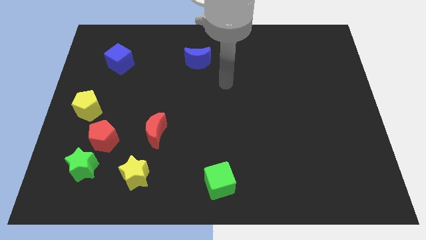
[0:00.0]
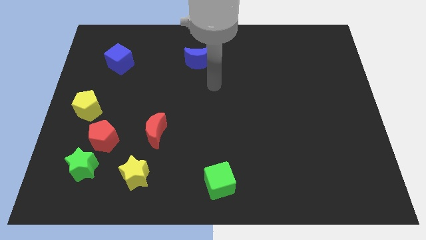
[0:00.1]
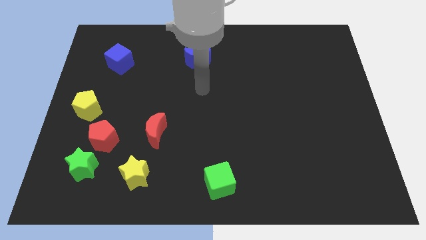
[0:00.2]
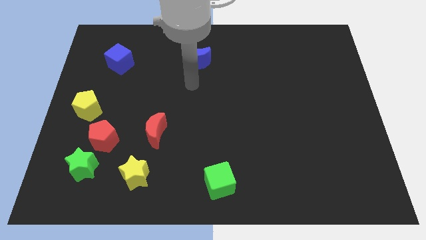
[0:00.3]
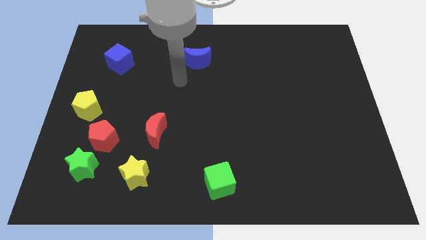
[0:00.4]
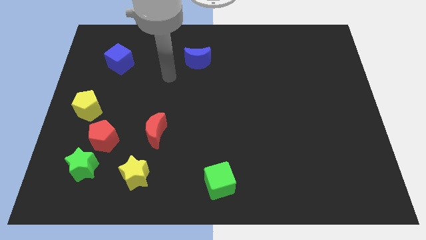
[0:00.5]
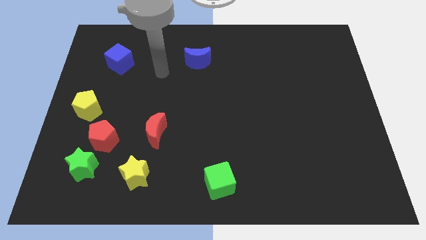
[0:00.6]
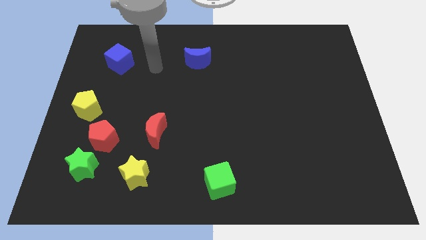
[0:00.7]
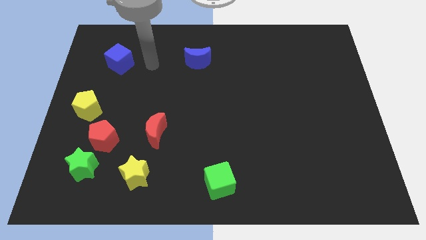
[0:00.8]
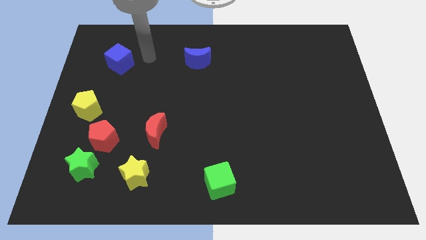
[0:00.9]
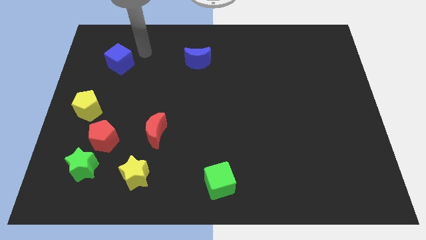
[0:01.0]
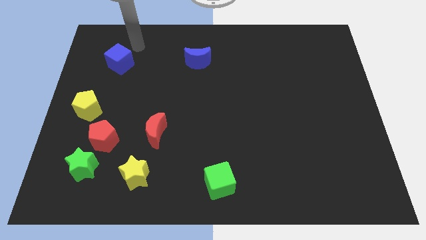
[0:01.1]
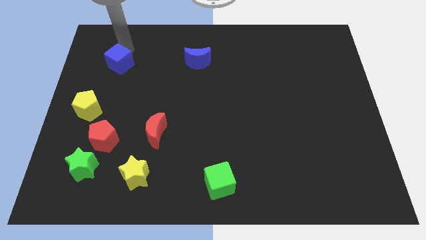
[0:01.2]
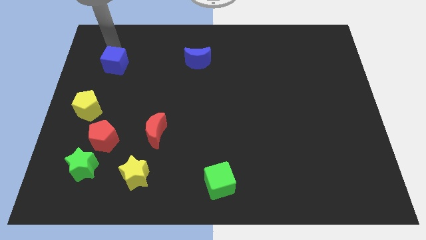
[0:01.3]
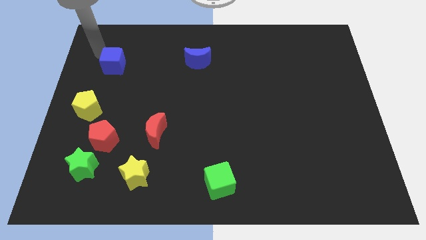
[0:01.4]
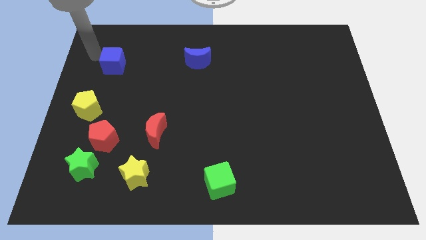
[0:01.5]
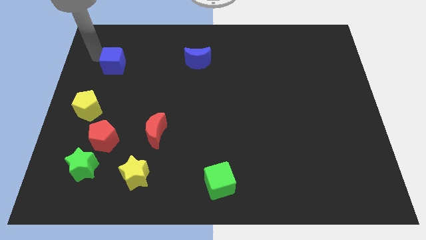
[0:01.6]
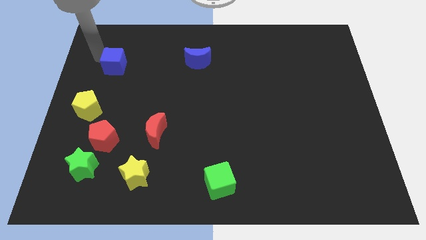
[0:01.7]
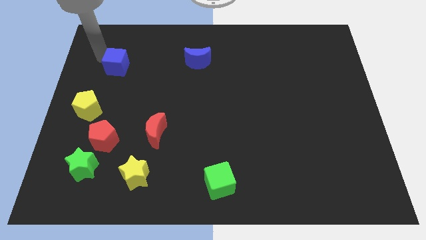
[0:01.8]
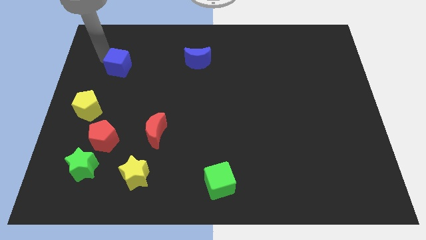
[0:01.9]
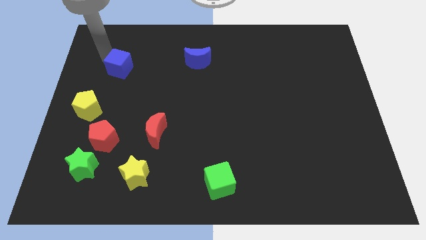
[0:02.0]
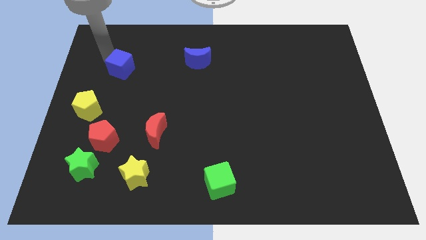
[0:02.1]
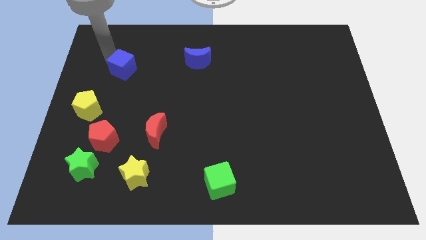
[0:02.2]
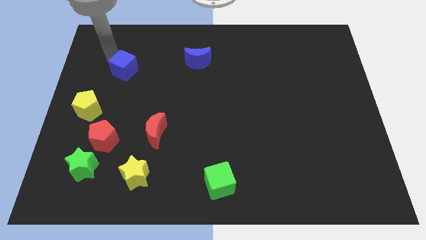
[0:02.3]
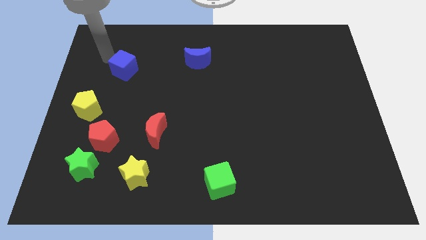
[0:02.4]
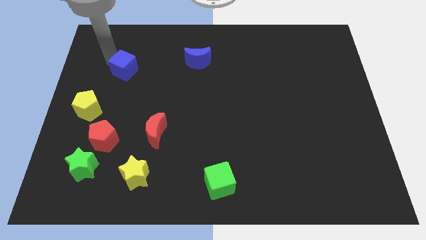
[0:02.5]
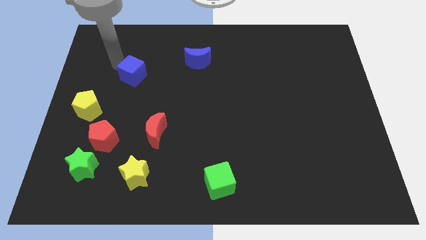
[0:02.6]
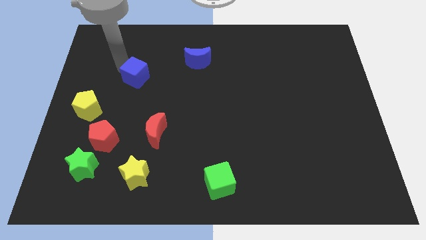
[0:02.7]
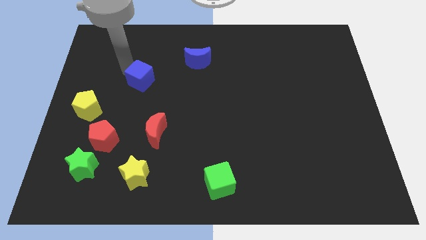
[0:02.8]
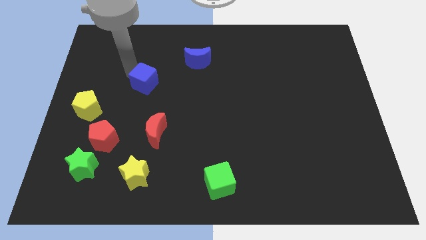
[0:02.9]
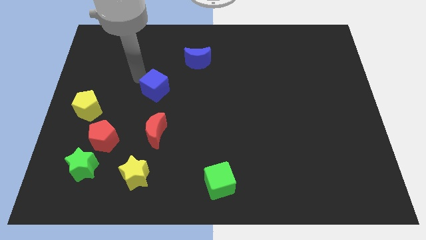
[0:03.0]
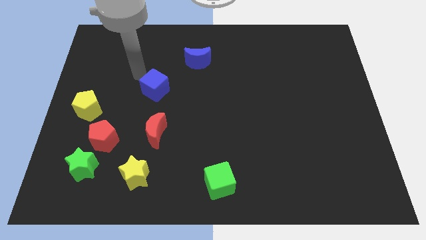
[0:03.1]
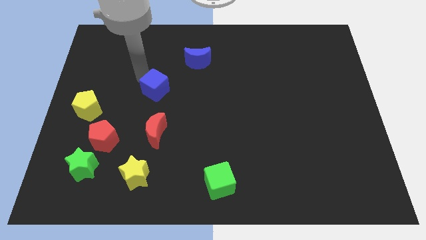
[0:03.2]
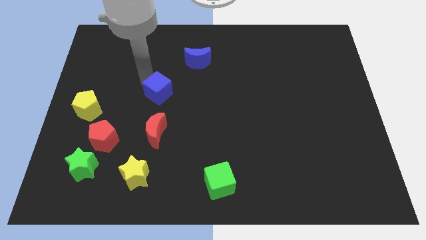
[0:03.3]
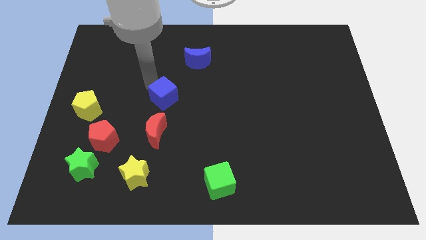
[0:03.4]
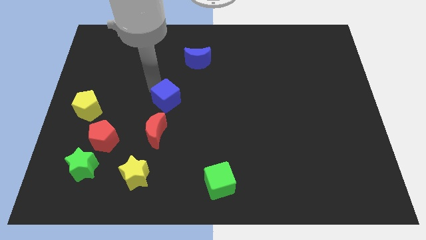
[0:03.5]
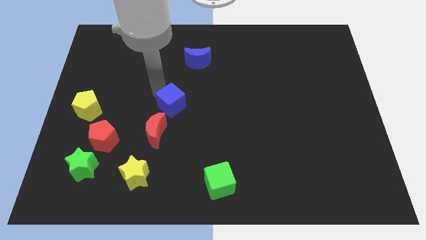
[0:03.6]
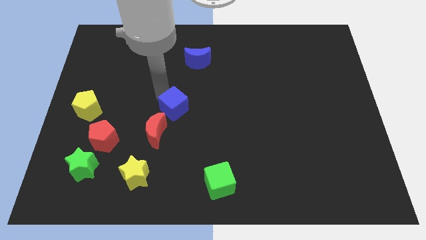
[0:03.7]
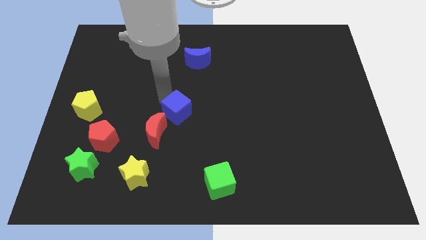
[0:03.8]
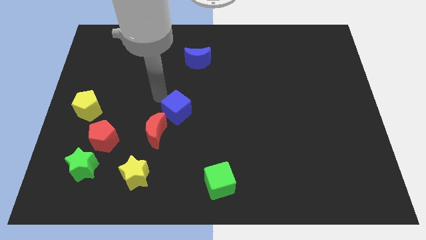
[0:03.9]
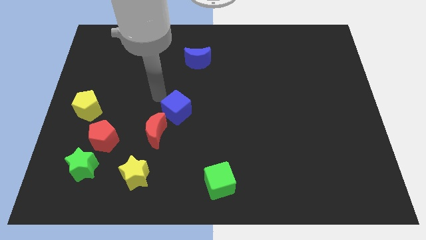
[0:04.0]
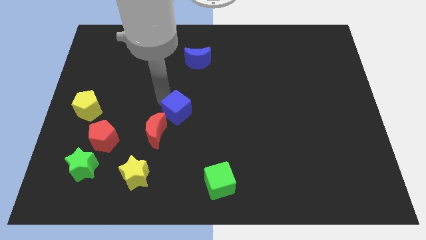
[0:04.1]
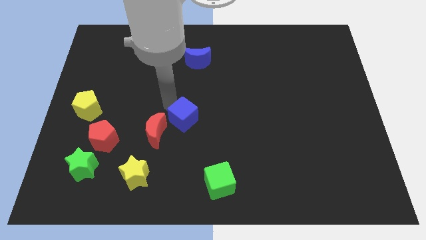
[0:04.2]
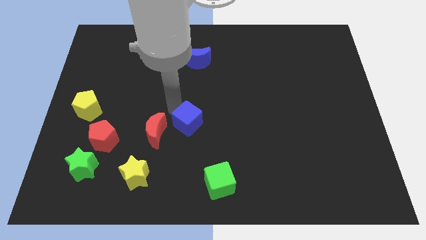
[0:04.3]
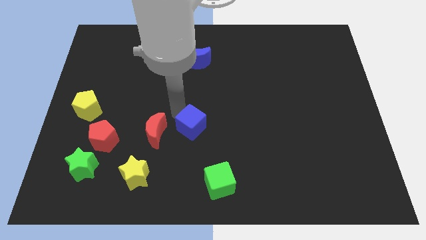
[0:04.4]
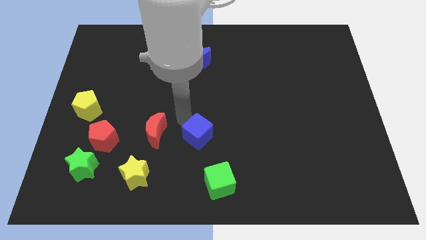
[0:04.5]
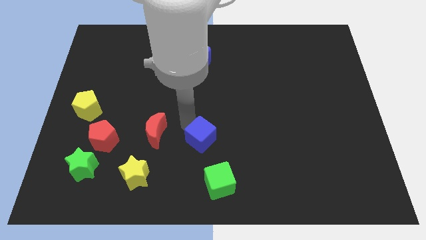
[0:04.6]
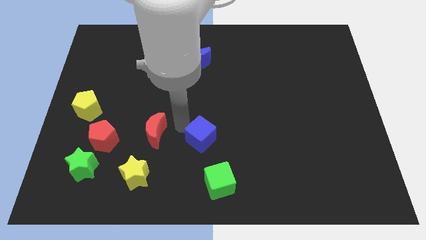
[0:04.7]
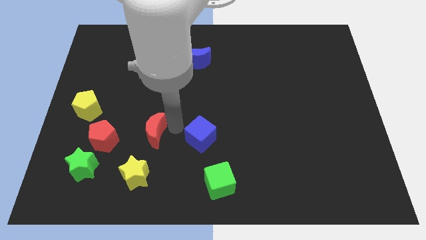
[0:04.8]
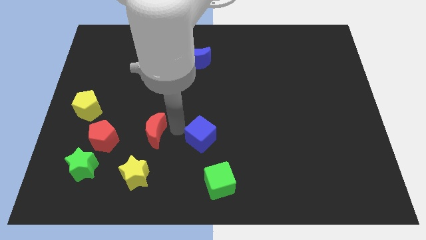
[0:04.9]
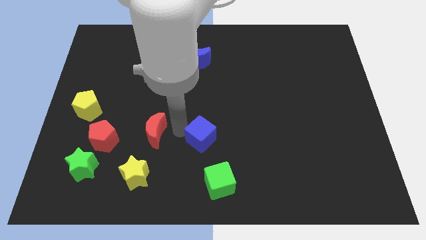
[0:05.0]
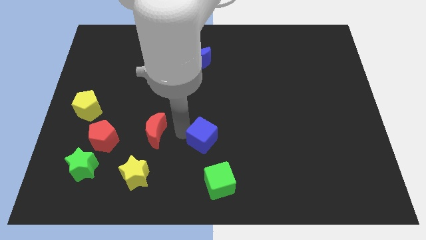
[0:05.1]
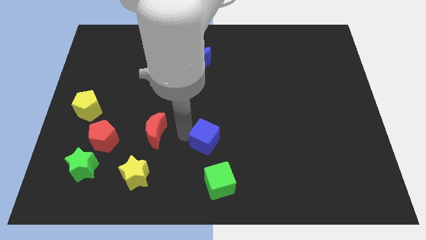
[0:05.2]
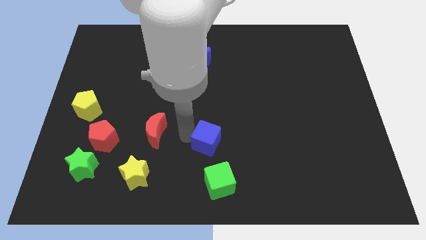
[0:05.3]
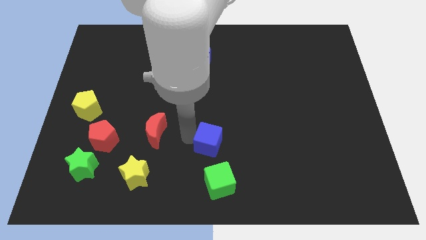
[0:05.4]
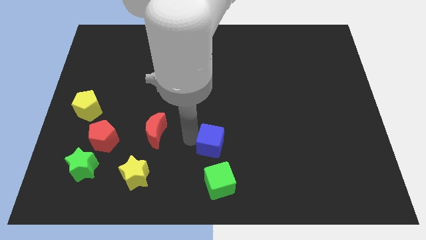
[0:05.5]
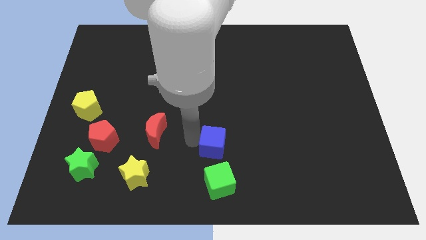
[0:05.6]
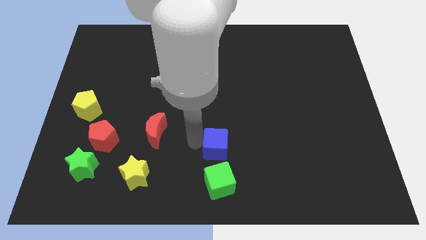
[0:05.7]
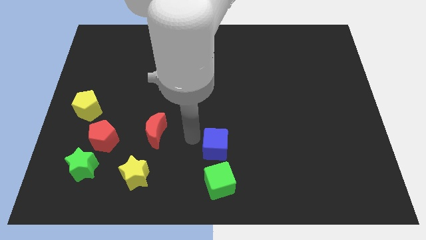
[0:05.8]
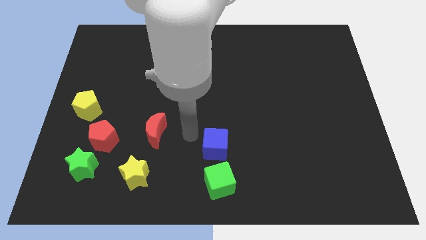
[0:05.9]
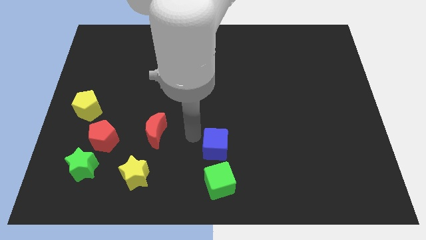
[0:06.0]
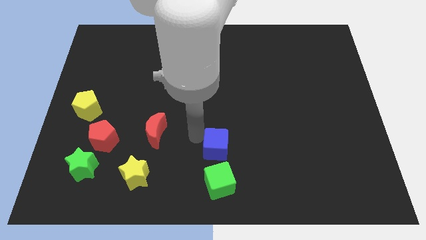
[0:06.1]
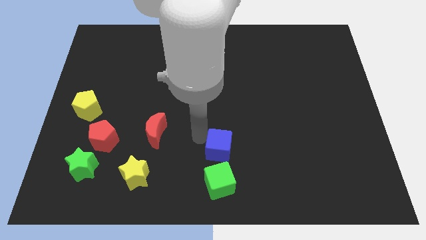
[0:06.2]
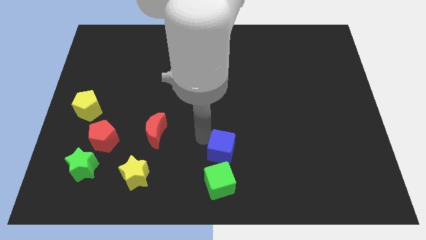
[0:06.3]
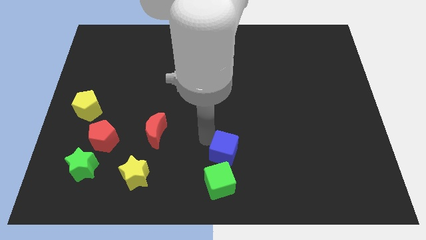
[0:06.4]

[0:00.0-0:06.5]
slide the blue cube to the top right of the green cube

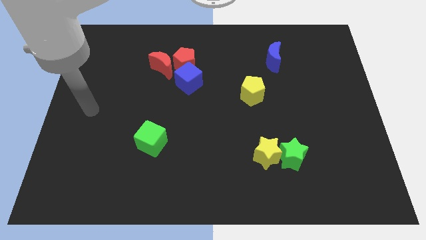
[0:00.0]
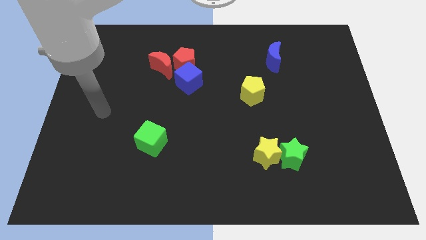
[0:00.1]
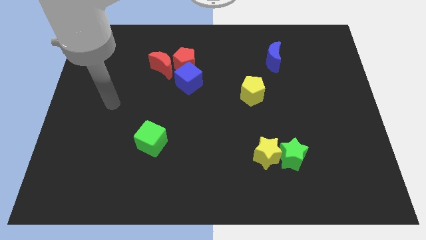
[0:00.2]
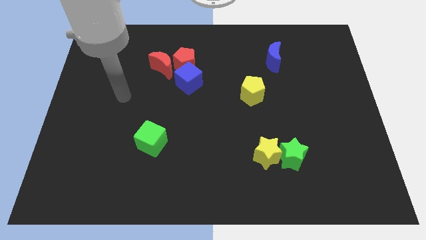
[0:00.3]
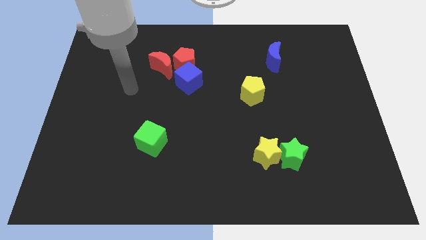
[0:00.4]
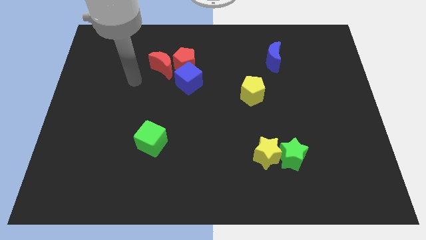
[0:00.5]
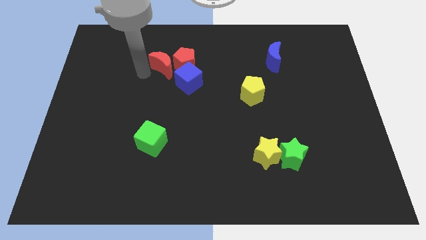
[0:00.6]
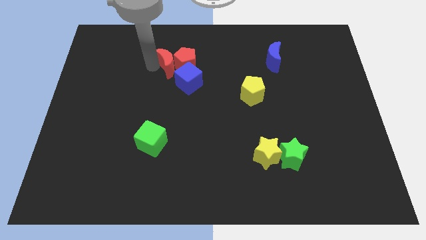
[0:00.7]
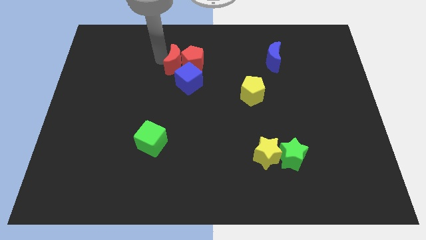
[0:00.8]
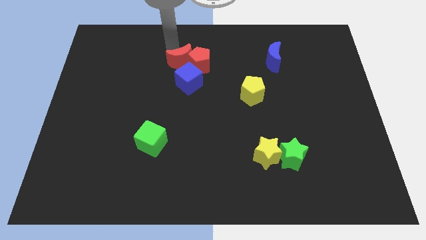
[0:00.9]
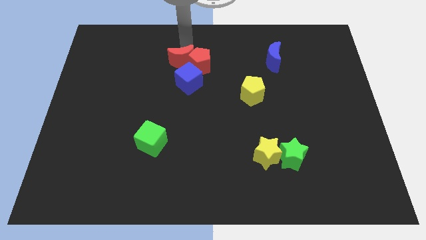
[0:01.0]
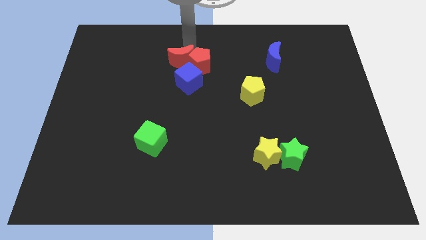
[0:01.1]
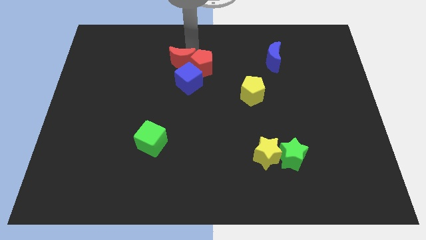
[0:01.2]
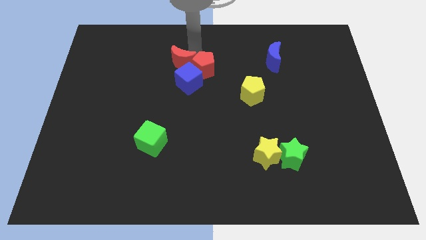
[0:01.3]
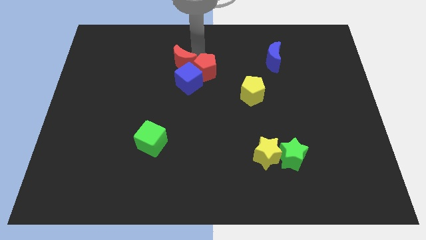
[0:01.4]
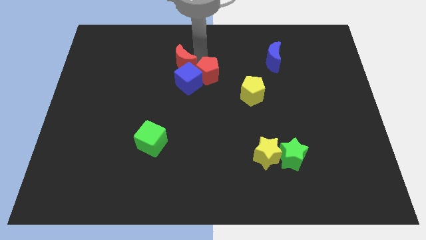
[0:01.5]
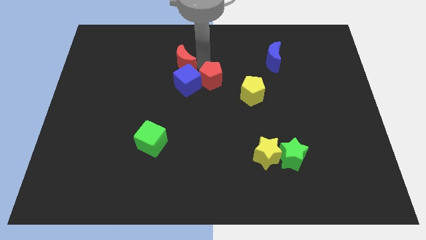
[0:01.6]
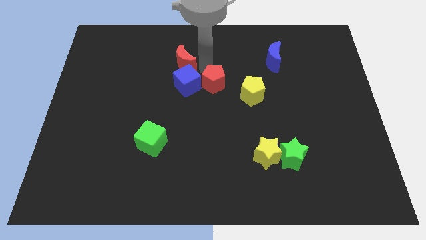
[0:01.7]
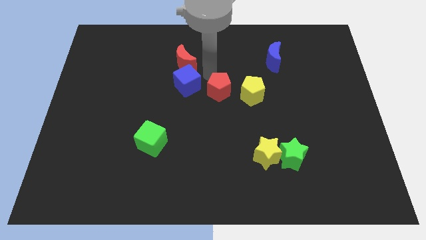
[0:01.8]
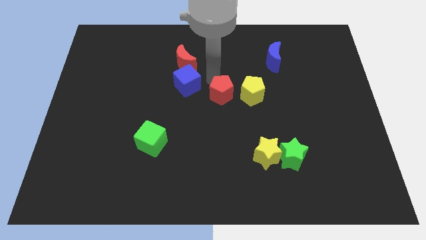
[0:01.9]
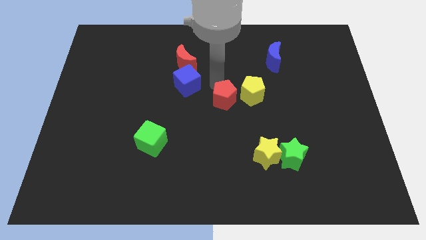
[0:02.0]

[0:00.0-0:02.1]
put the red pentagon diagonally down and to the left of the yellow pentagon
